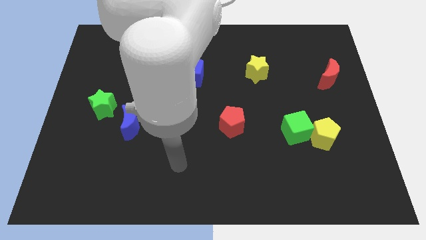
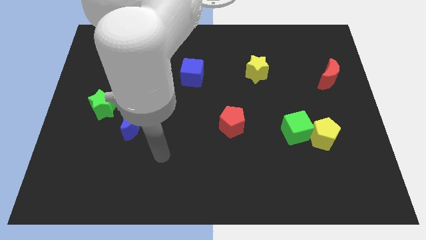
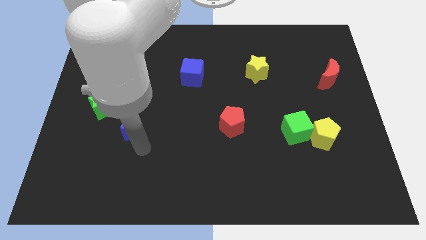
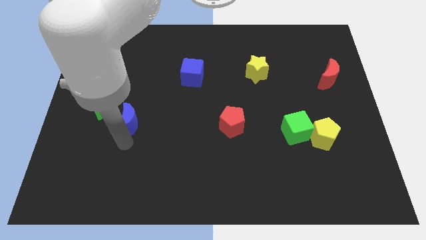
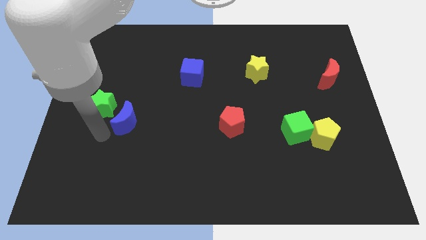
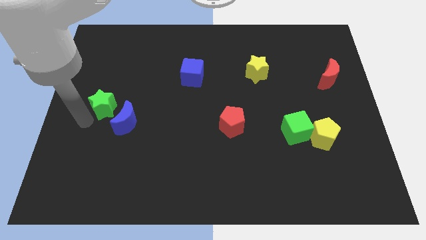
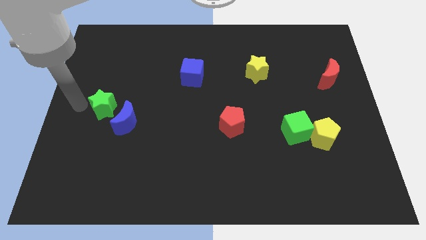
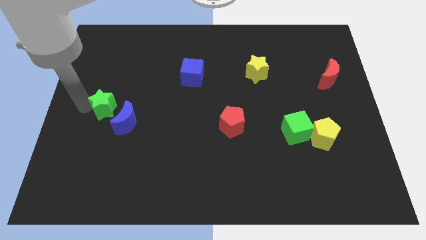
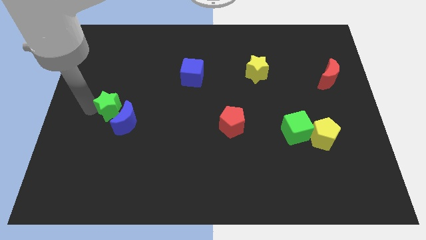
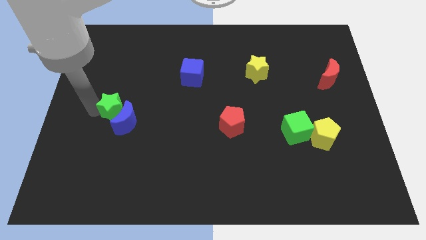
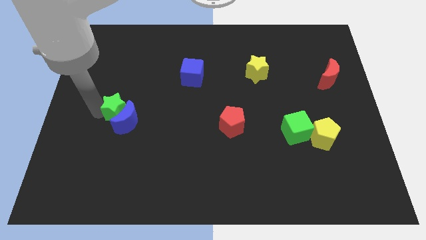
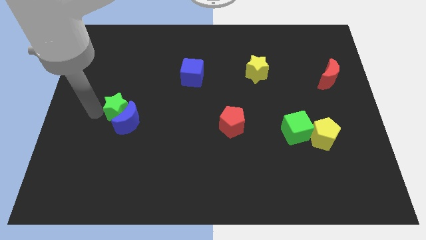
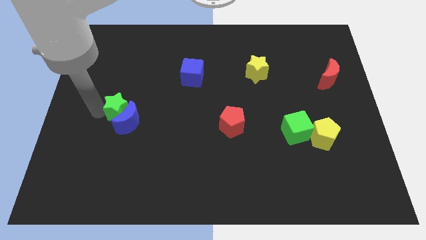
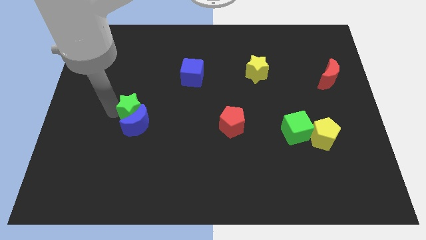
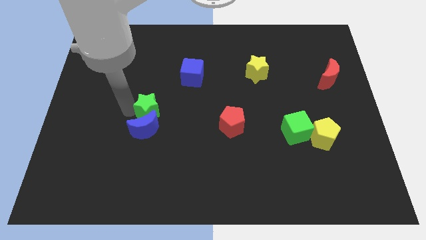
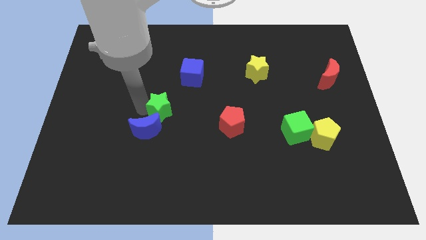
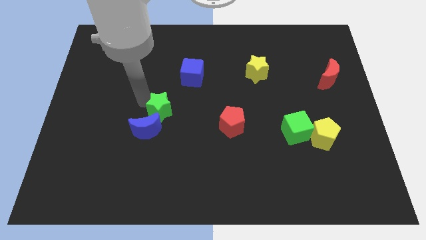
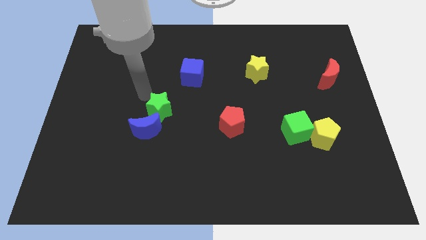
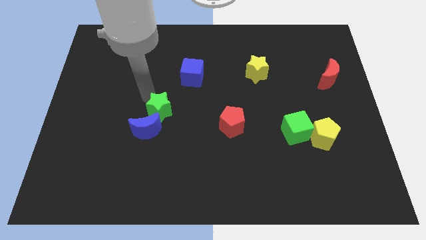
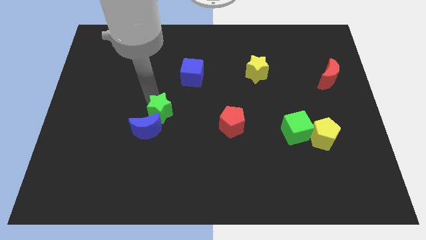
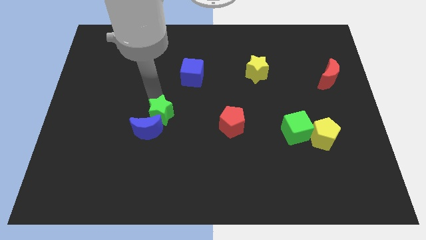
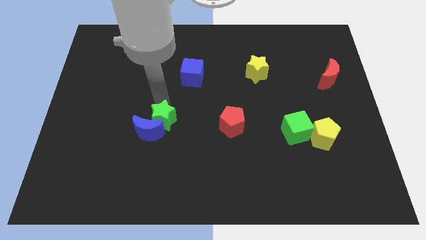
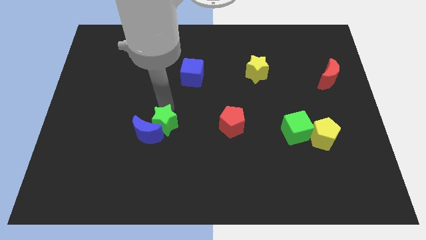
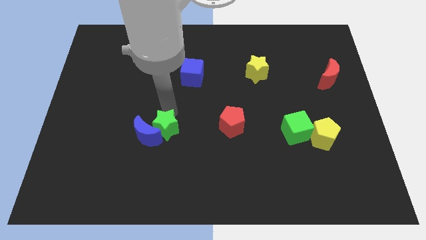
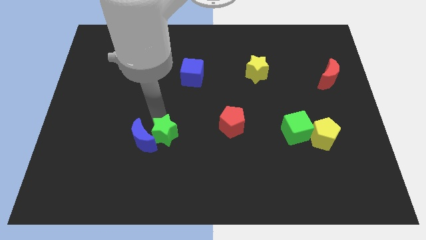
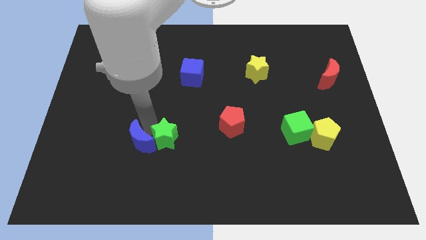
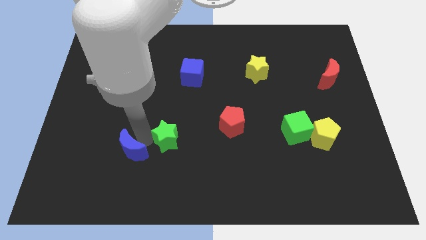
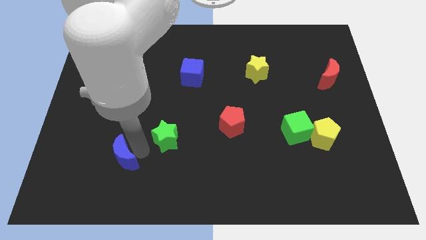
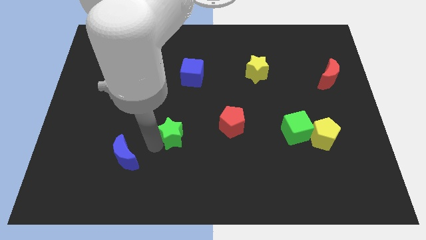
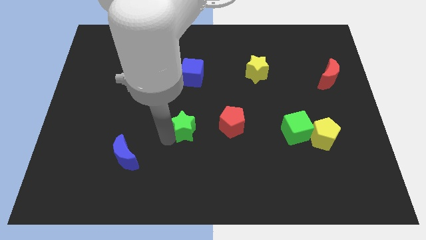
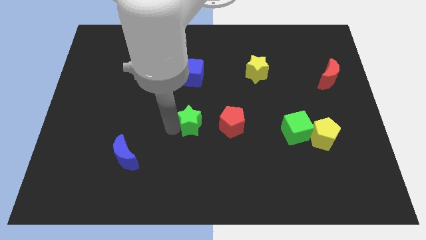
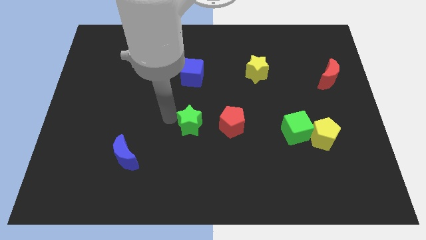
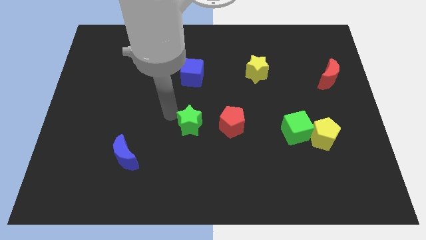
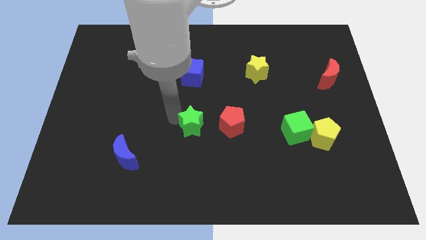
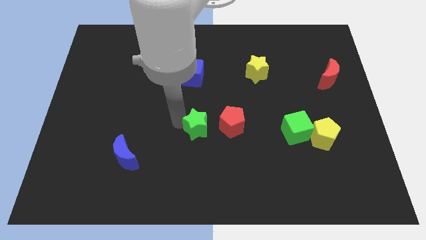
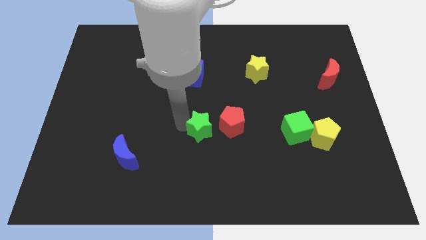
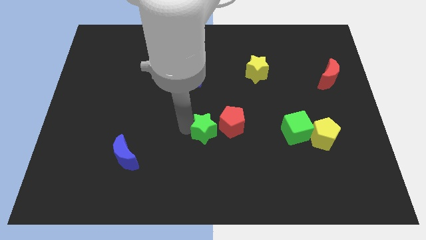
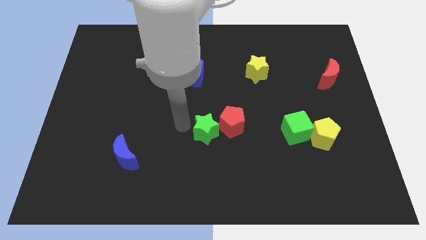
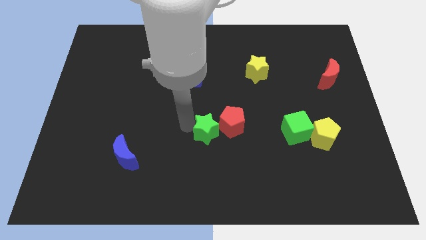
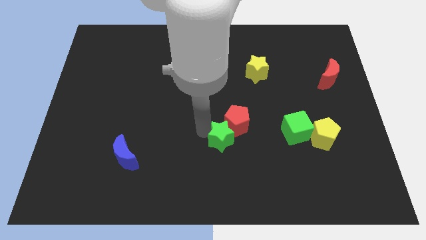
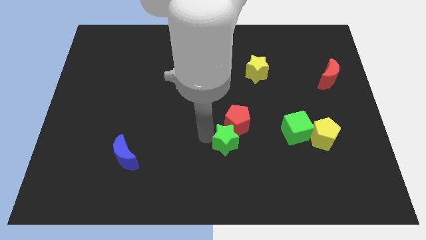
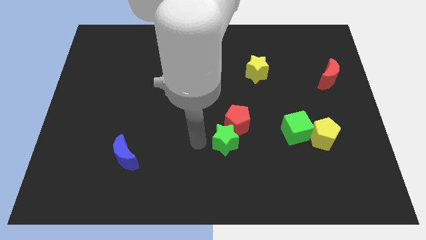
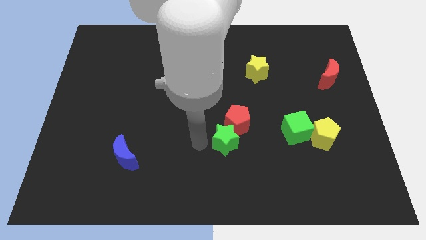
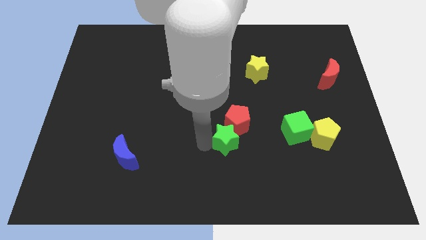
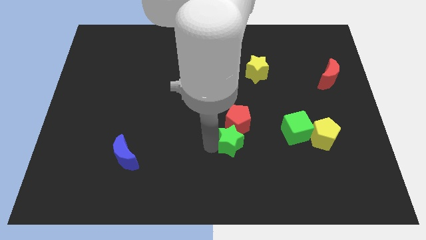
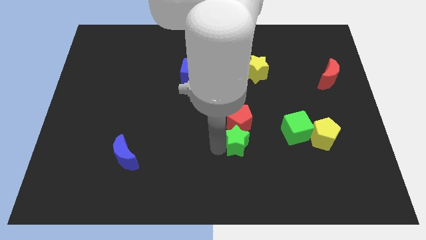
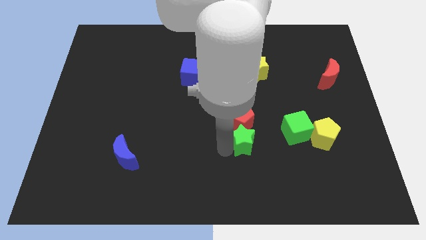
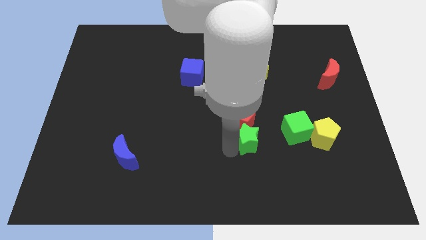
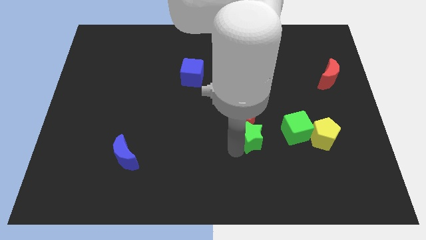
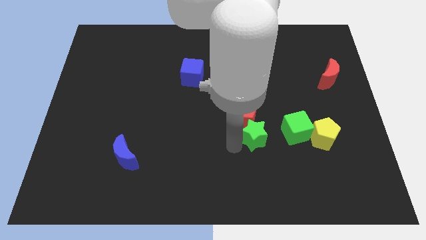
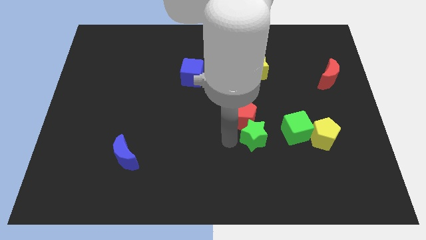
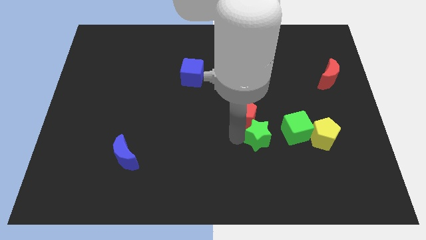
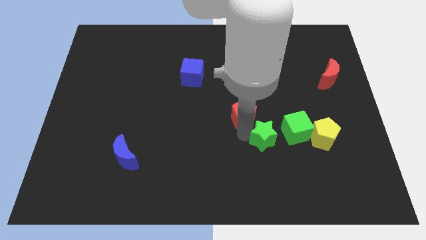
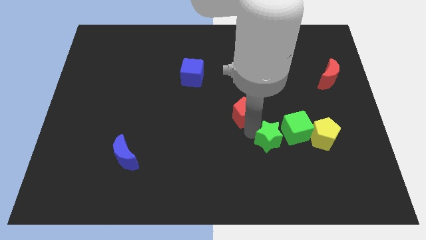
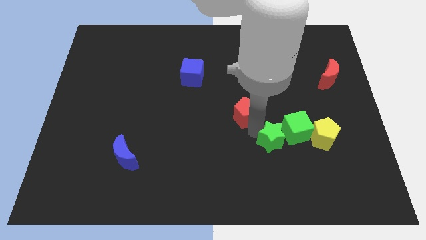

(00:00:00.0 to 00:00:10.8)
push the green star to the green cube

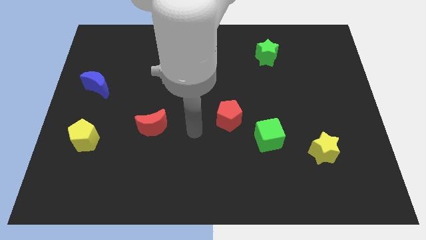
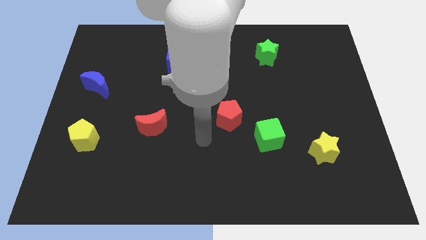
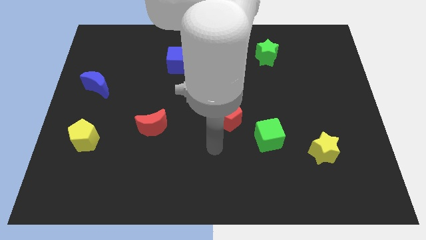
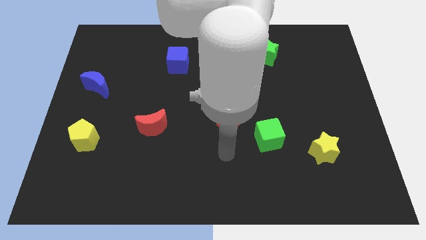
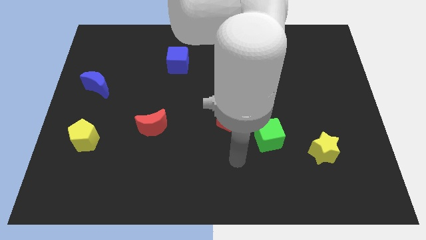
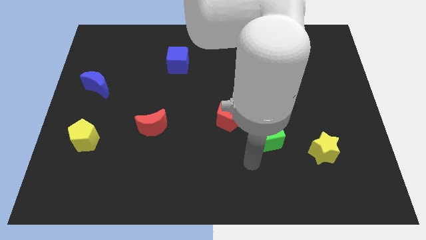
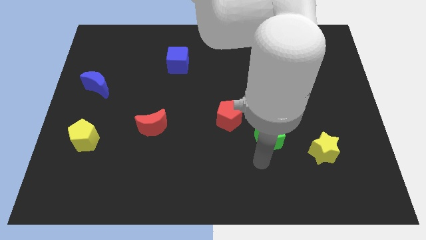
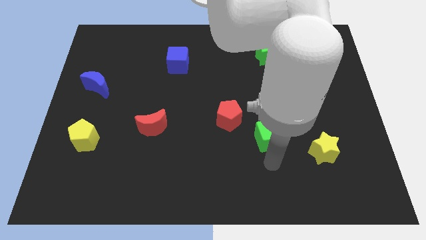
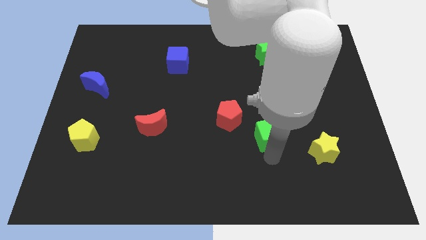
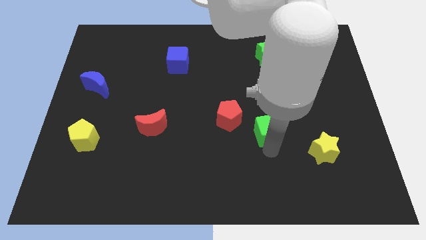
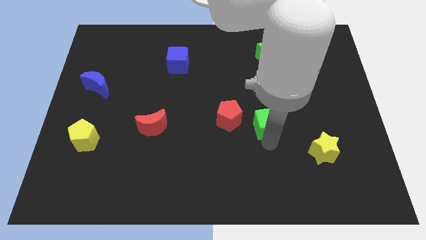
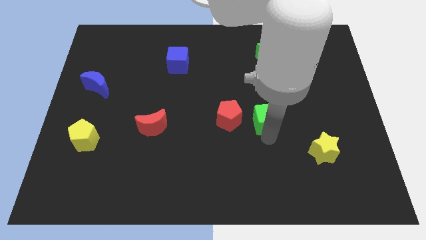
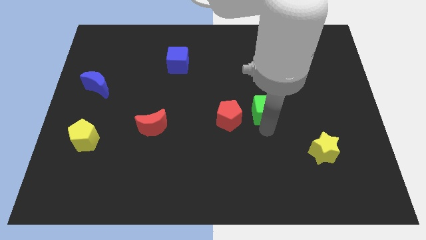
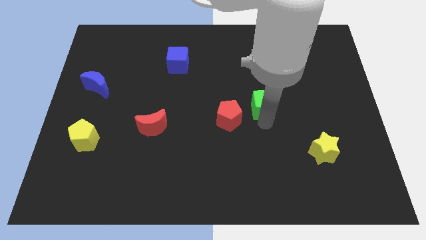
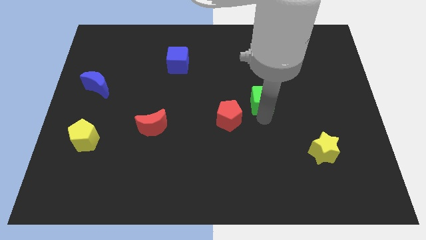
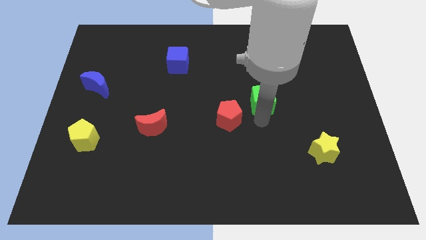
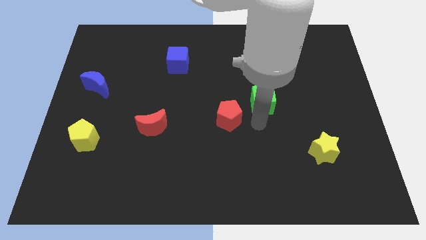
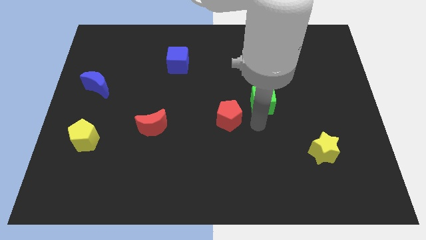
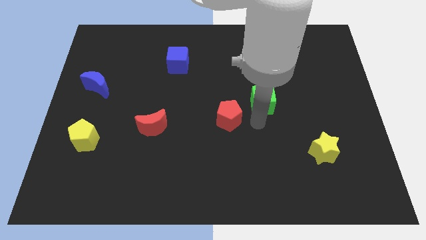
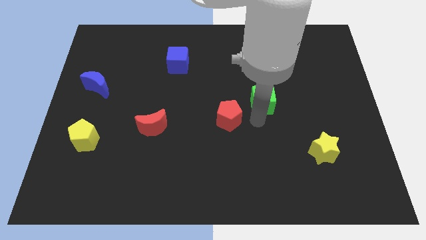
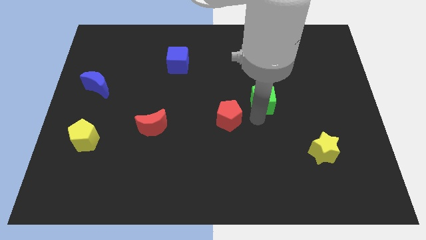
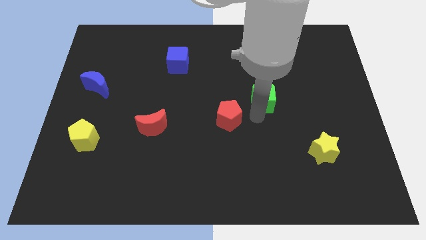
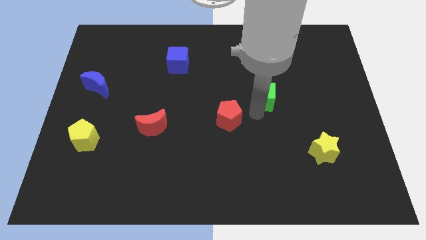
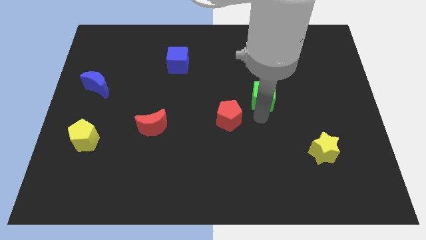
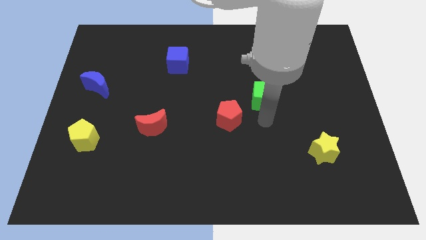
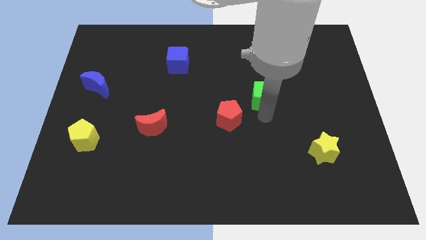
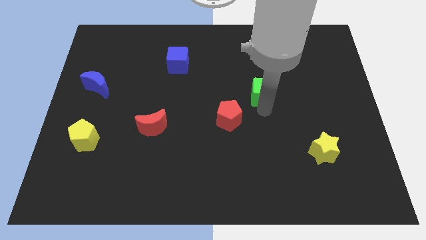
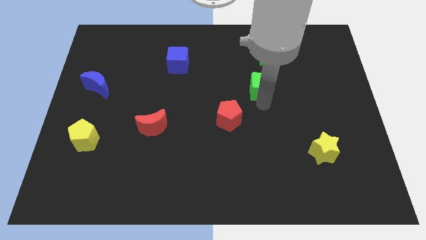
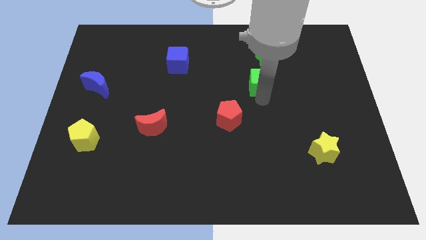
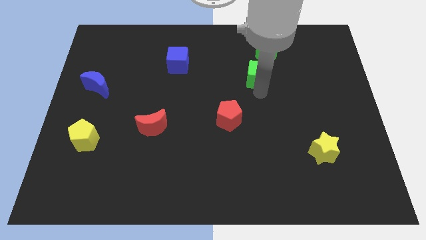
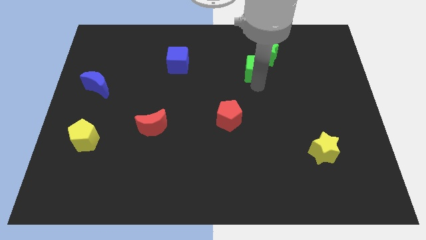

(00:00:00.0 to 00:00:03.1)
slide the green cube towards the green star
